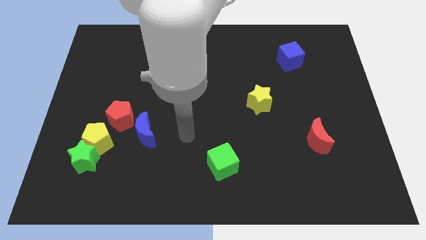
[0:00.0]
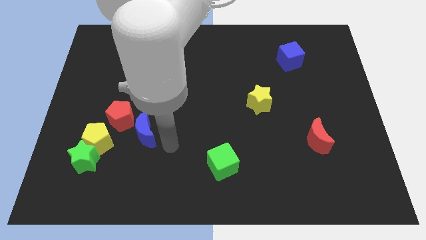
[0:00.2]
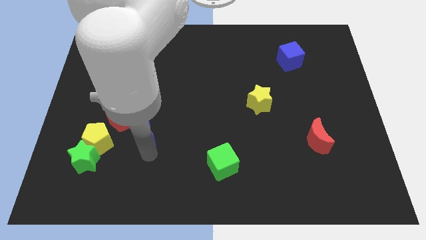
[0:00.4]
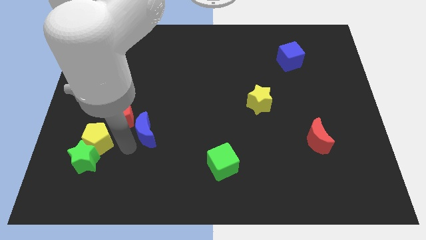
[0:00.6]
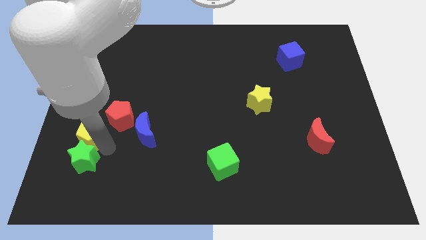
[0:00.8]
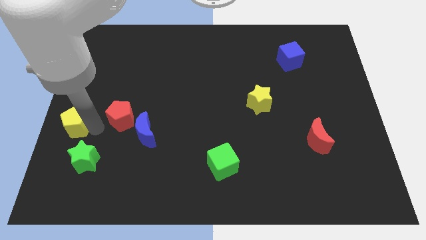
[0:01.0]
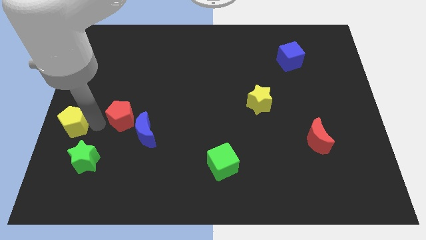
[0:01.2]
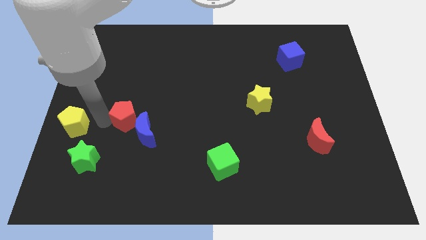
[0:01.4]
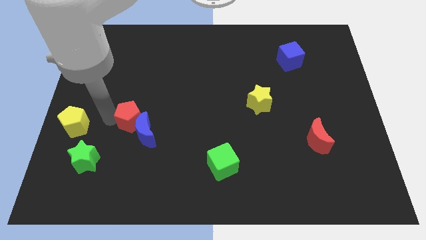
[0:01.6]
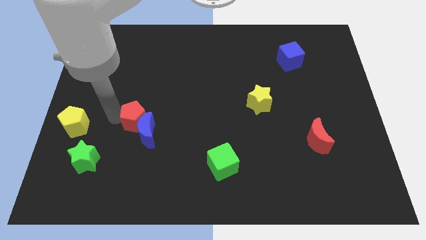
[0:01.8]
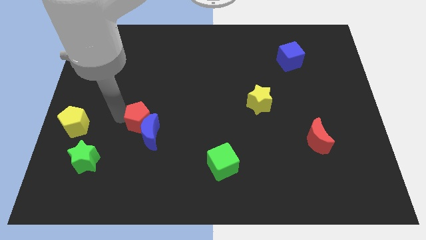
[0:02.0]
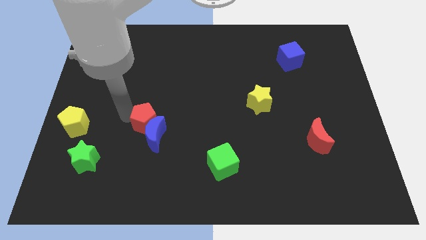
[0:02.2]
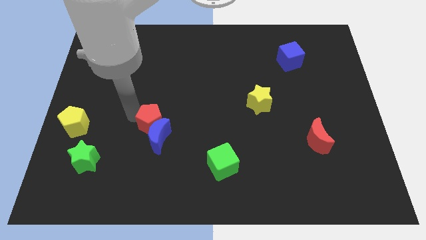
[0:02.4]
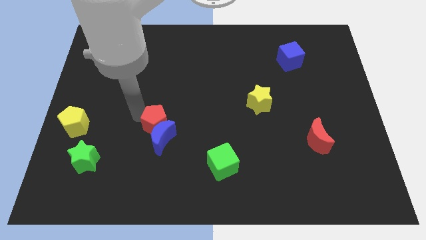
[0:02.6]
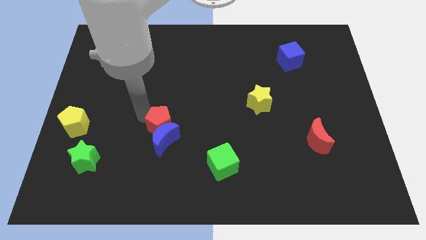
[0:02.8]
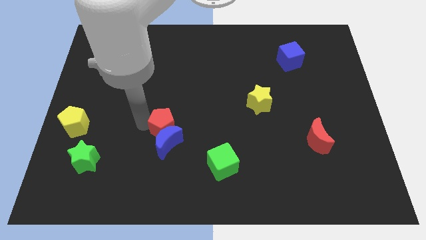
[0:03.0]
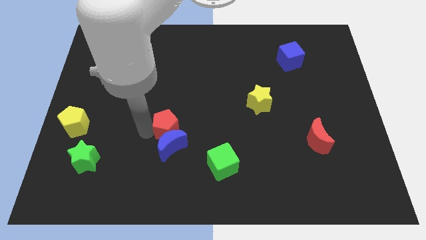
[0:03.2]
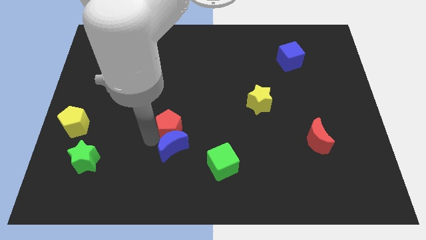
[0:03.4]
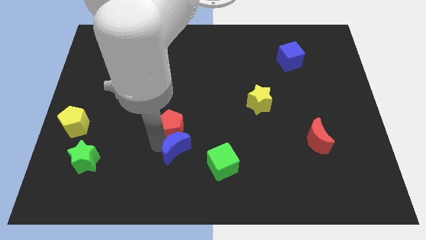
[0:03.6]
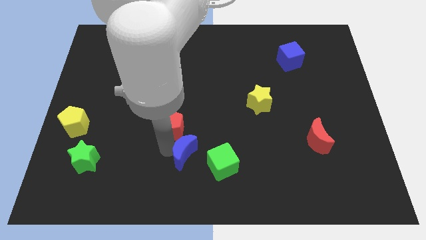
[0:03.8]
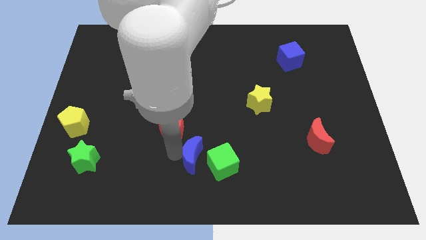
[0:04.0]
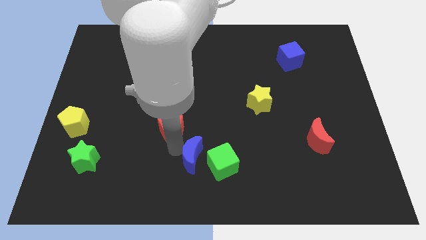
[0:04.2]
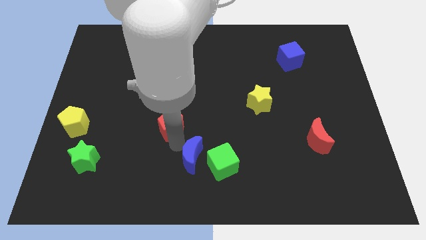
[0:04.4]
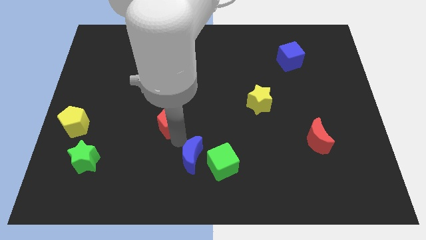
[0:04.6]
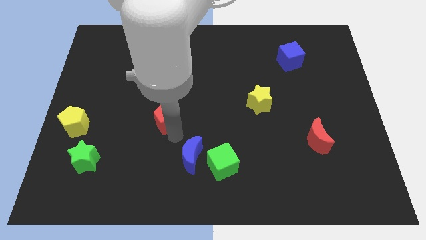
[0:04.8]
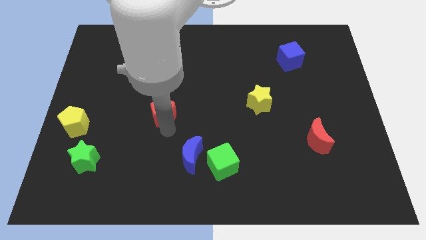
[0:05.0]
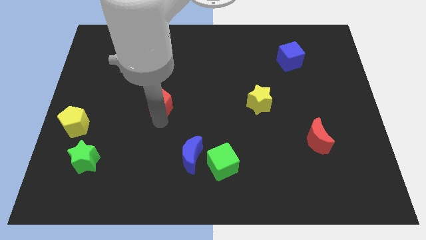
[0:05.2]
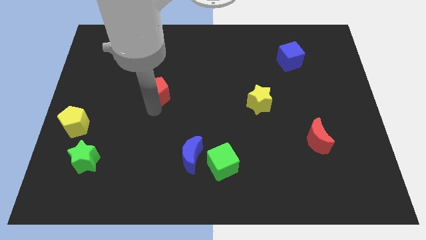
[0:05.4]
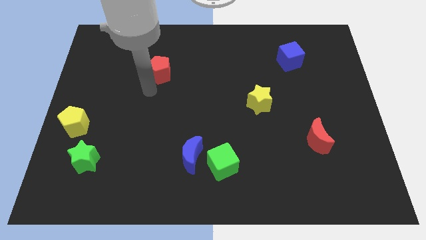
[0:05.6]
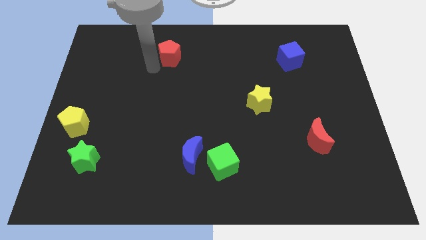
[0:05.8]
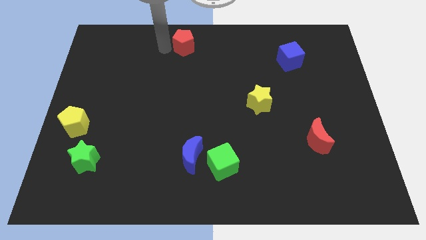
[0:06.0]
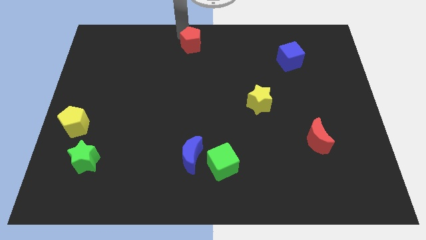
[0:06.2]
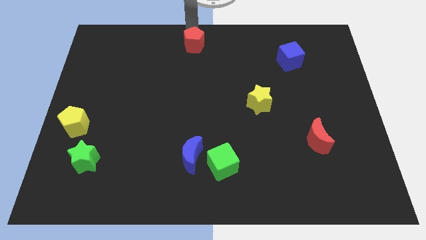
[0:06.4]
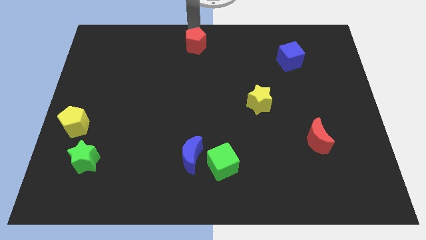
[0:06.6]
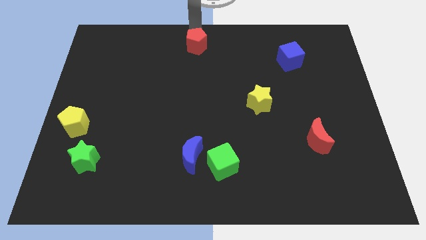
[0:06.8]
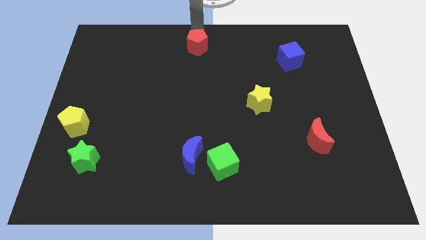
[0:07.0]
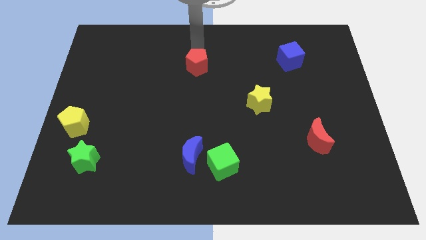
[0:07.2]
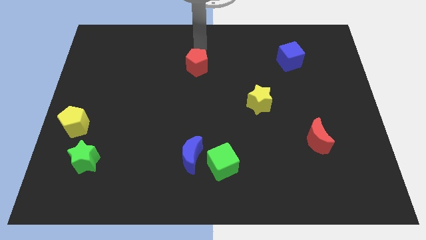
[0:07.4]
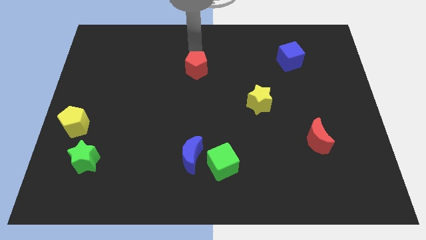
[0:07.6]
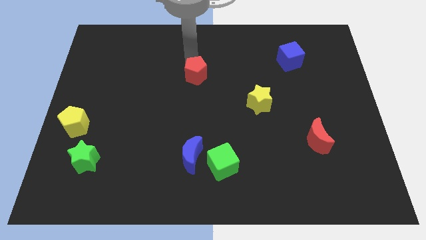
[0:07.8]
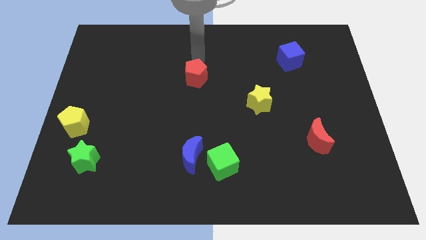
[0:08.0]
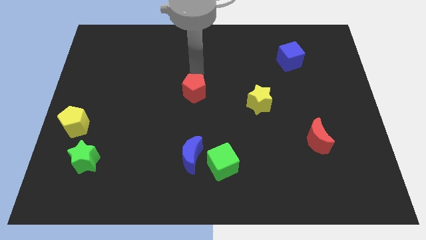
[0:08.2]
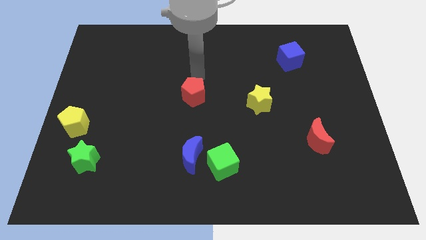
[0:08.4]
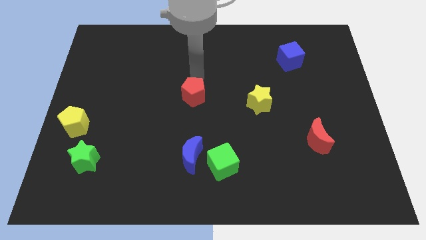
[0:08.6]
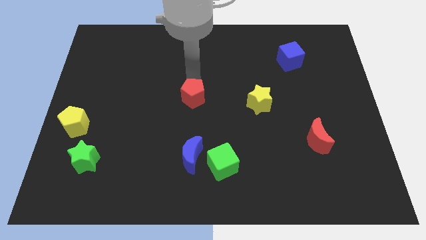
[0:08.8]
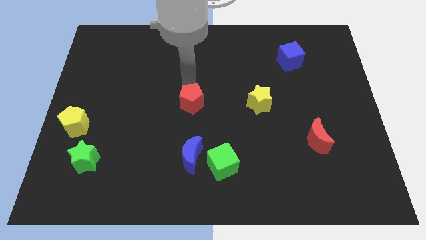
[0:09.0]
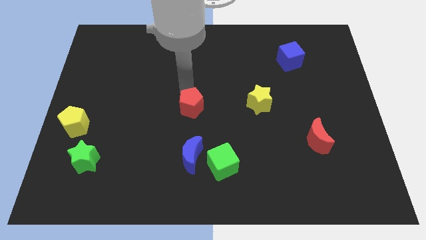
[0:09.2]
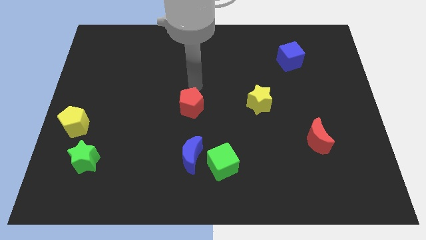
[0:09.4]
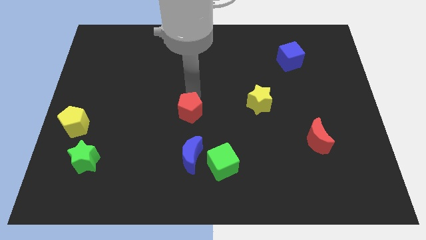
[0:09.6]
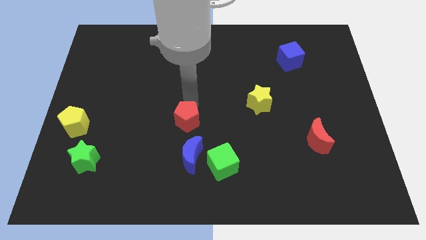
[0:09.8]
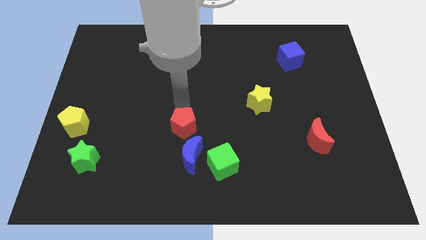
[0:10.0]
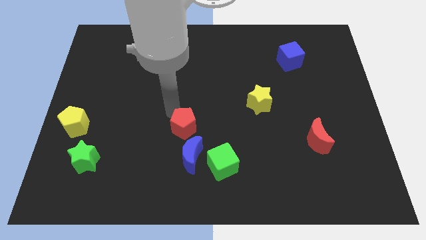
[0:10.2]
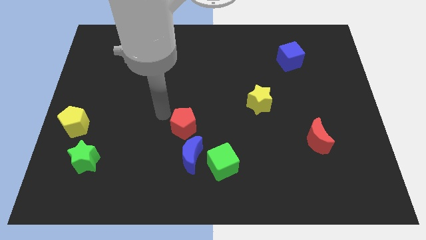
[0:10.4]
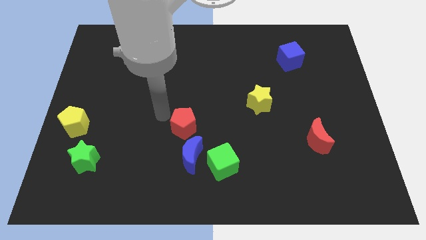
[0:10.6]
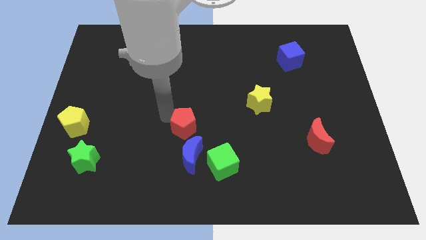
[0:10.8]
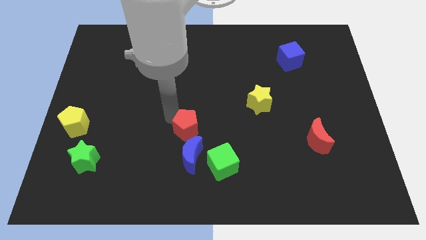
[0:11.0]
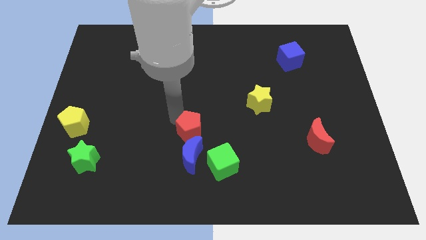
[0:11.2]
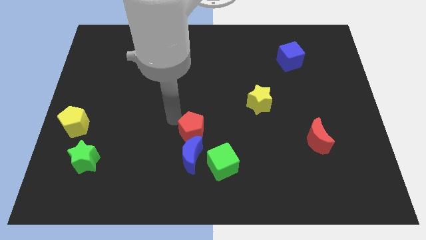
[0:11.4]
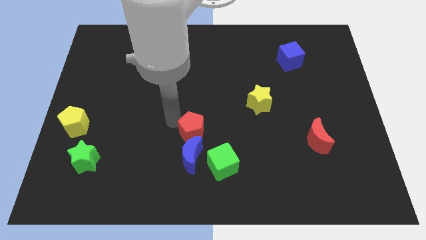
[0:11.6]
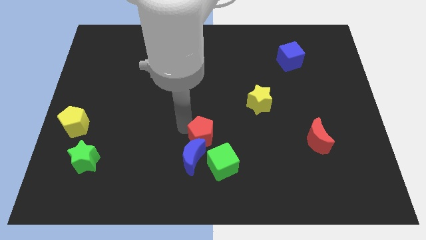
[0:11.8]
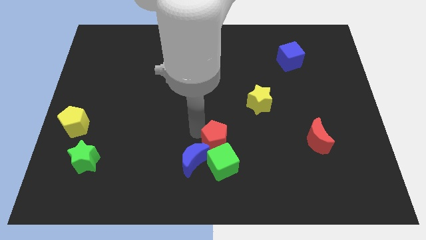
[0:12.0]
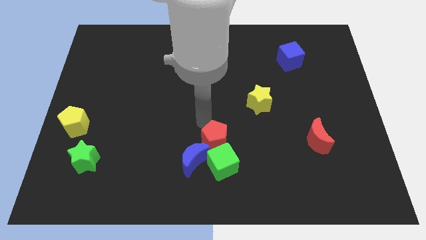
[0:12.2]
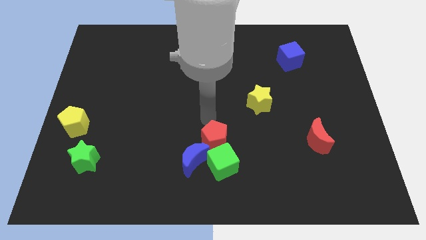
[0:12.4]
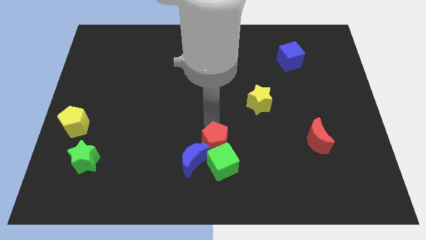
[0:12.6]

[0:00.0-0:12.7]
put the red pentagon to the green cube
